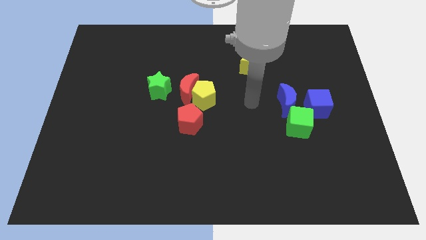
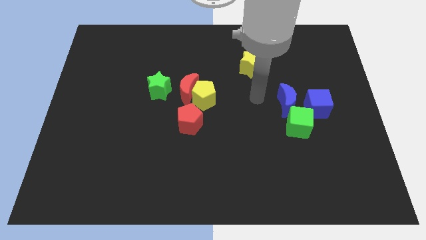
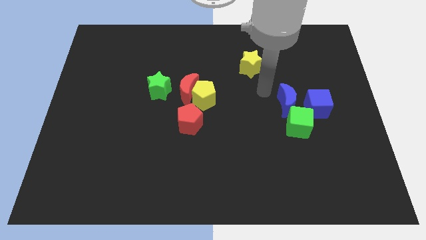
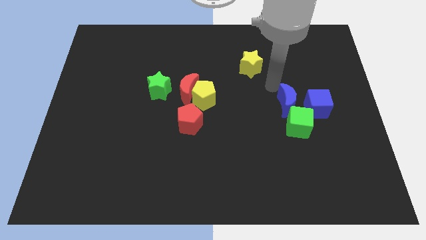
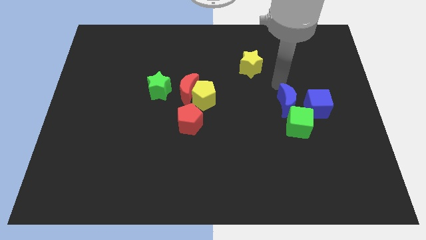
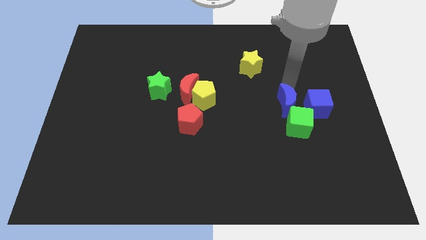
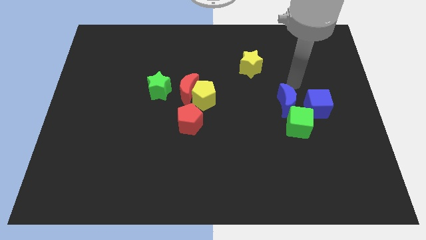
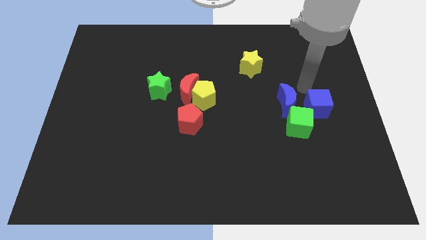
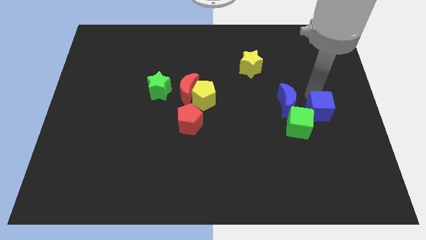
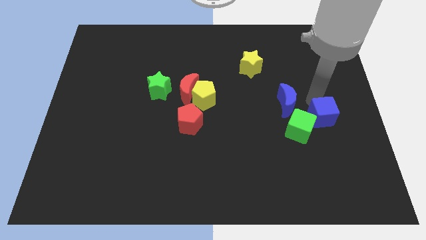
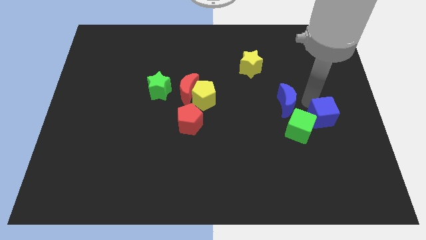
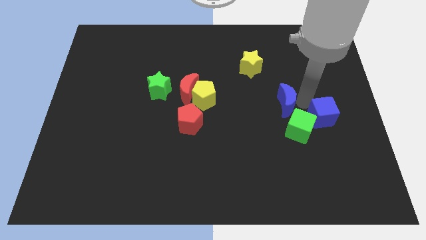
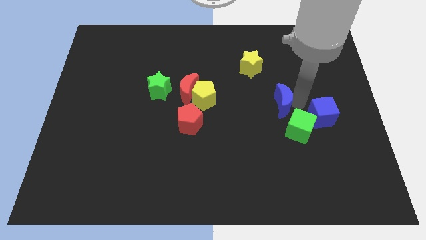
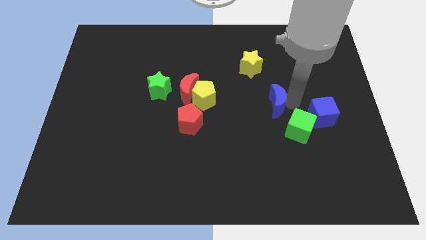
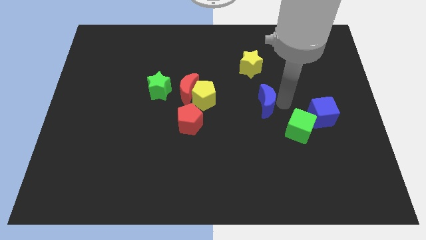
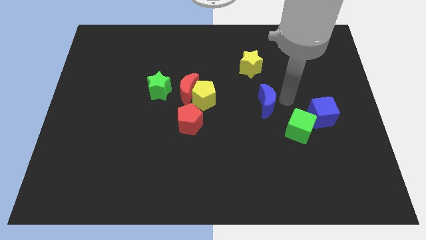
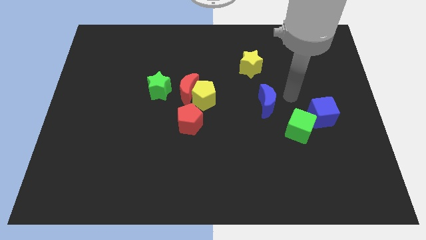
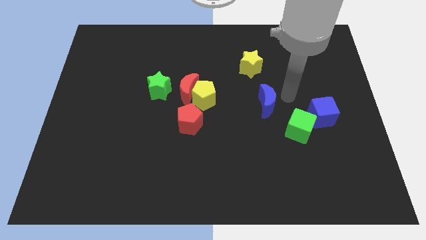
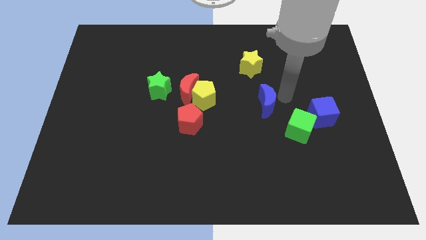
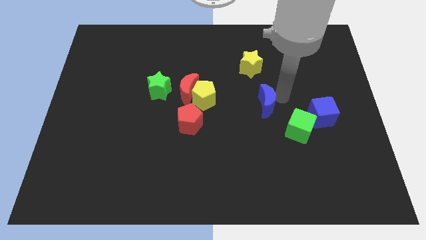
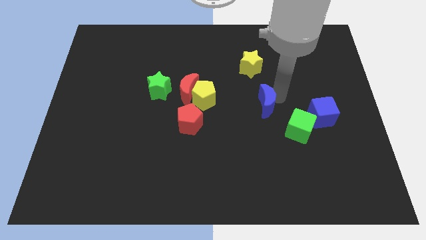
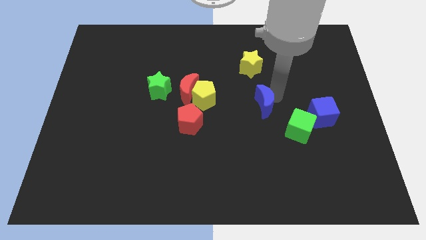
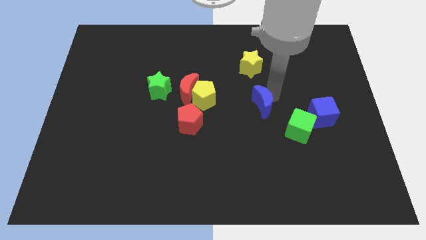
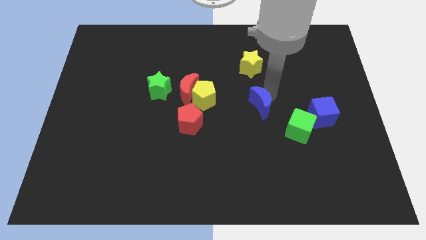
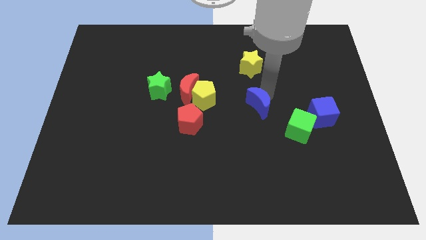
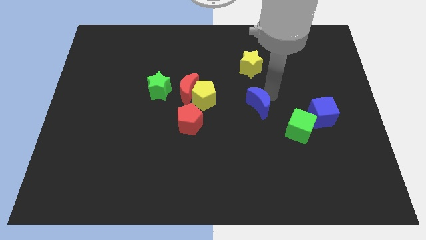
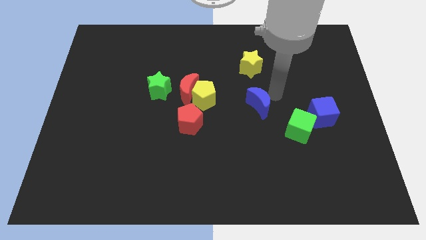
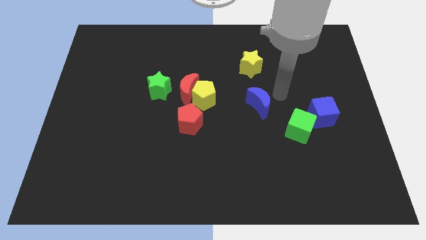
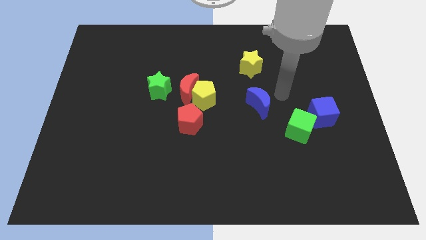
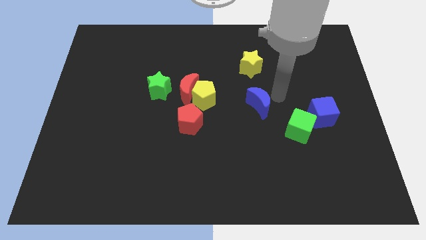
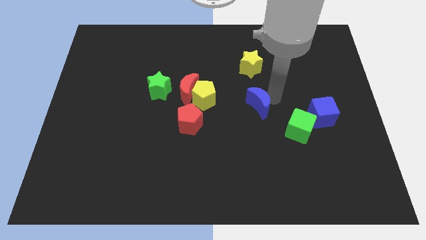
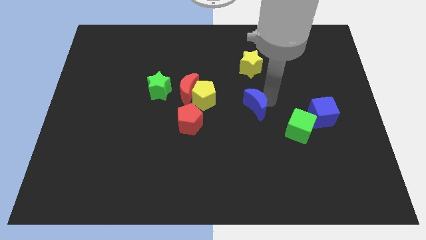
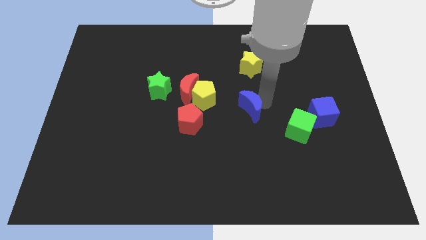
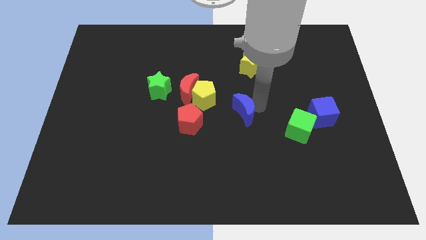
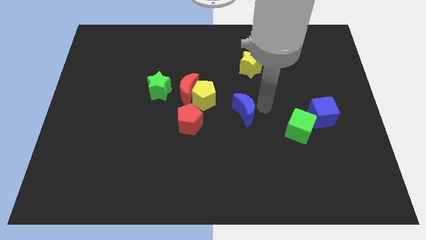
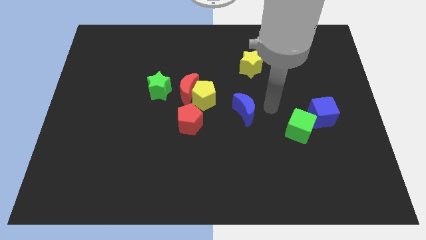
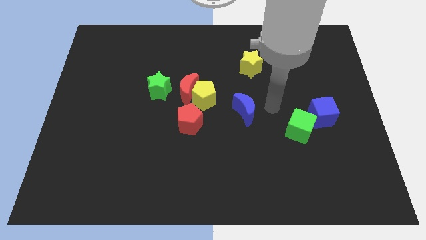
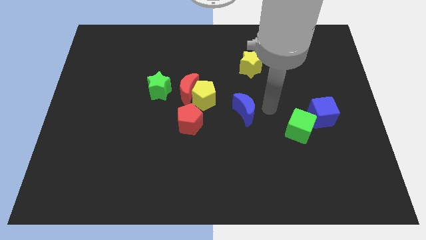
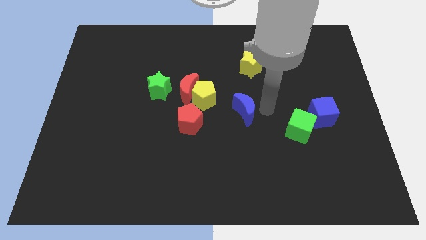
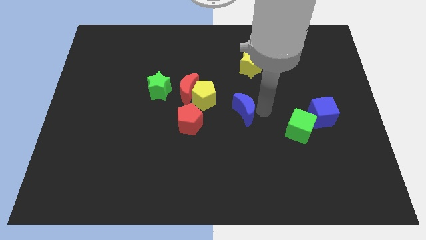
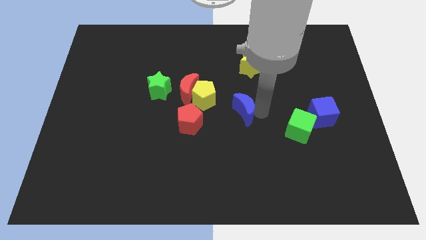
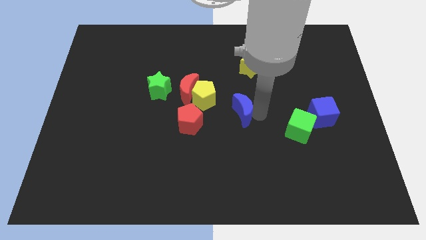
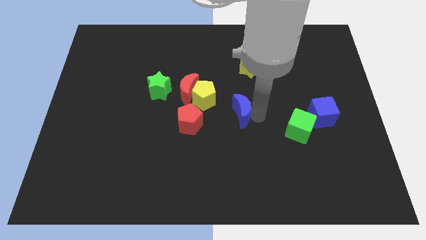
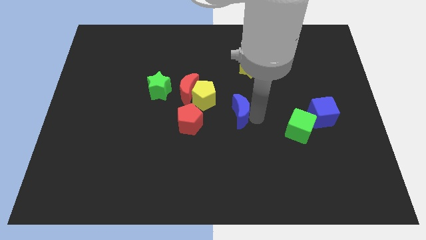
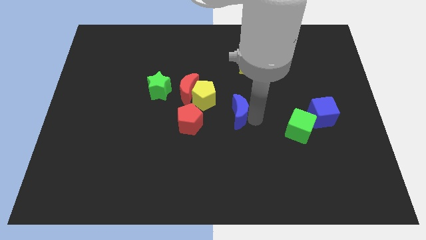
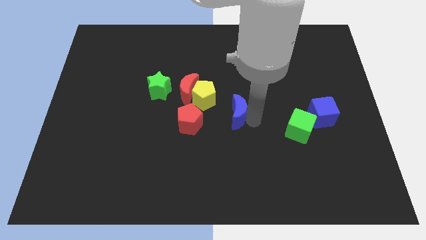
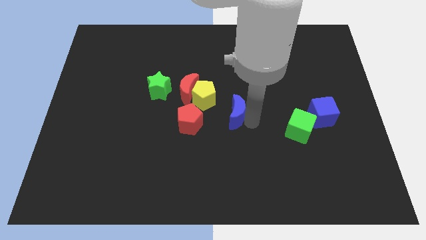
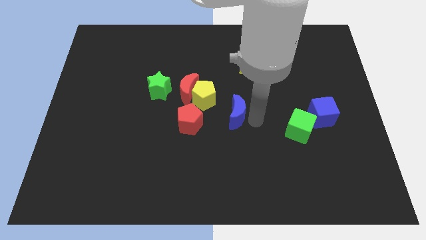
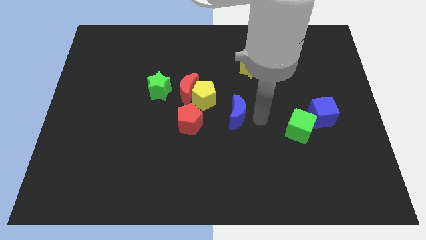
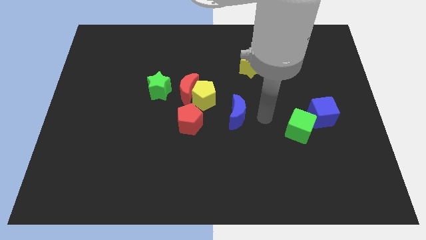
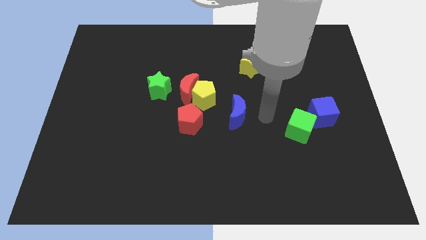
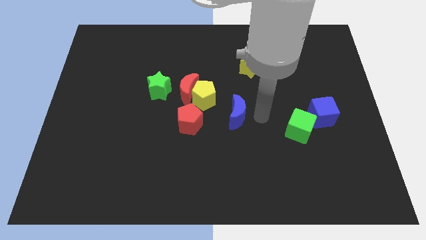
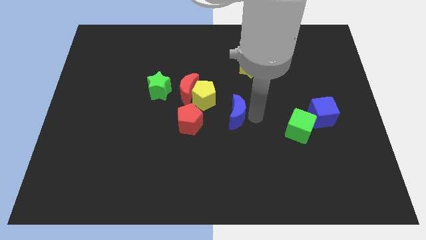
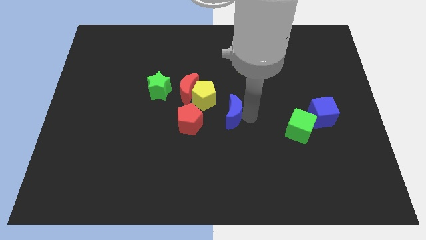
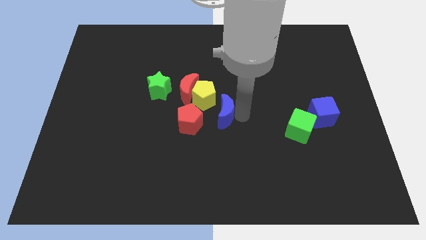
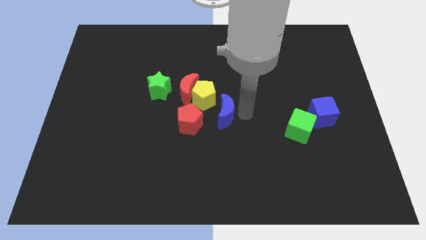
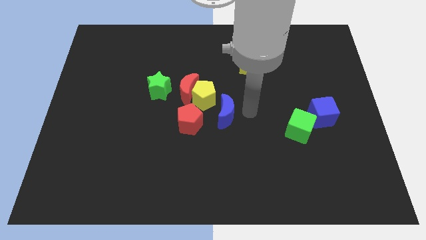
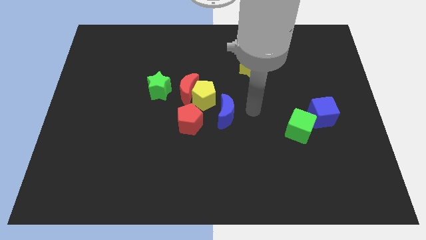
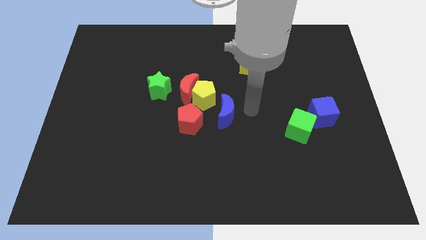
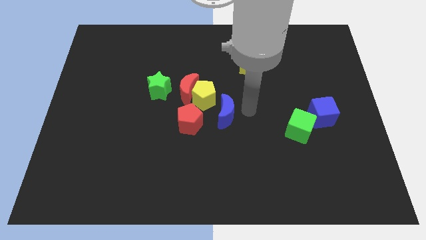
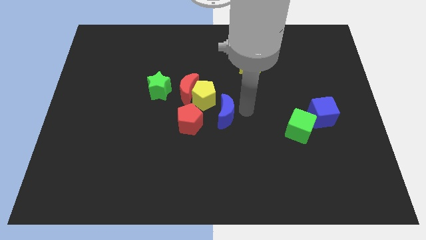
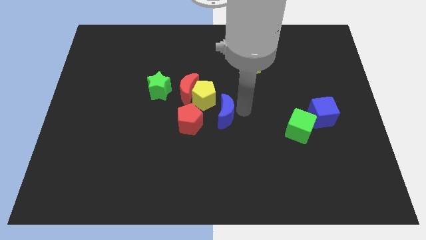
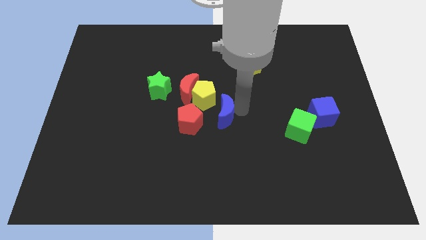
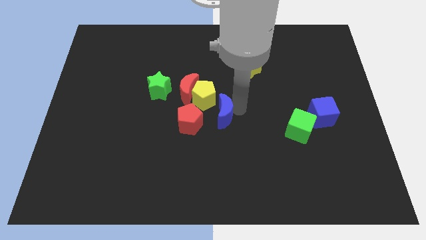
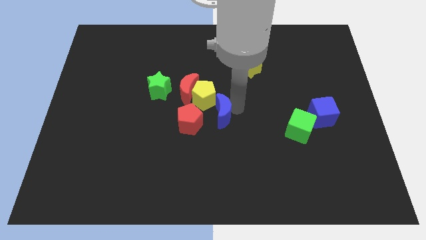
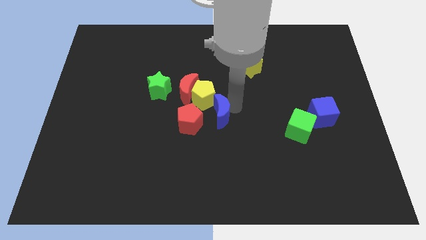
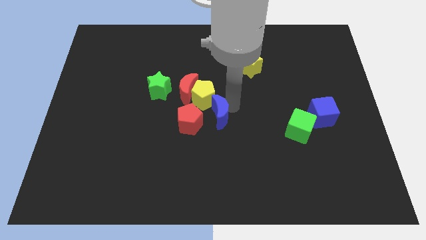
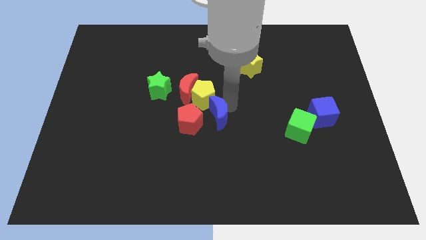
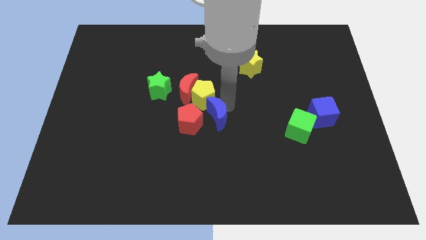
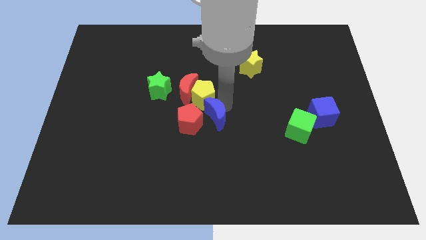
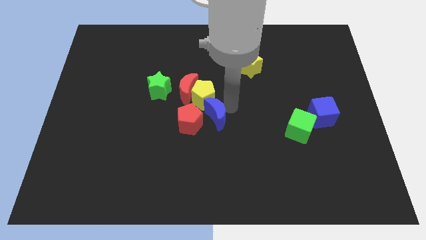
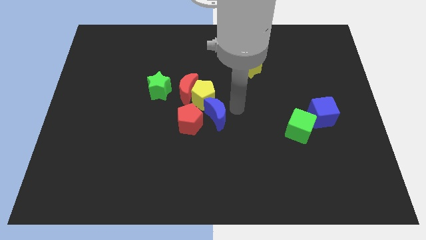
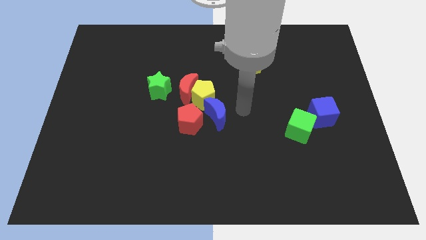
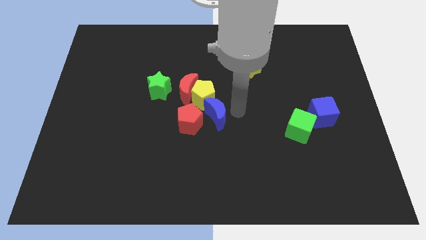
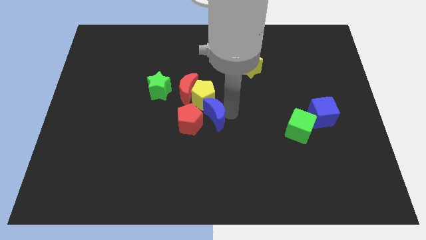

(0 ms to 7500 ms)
push the blue moon next to the red pentagon
